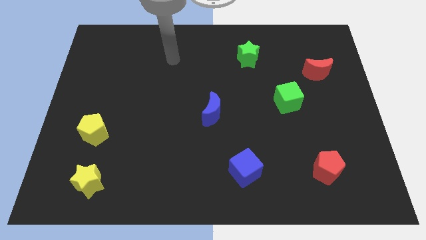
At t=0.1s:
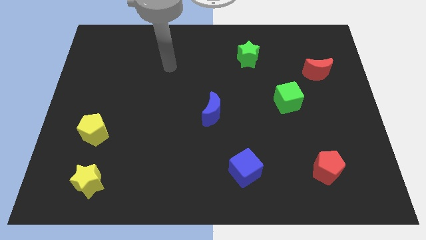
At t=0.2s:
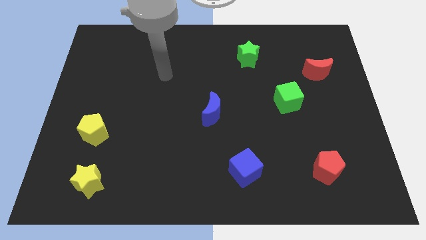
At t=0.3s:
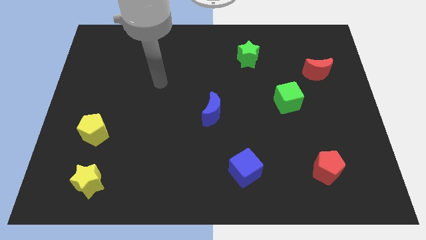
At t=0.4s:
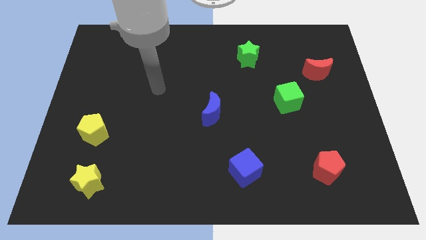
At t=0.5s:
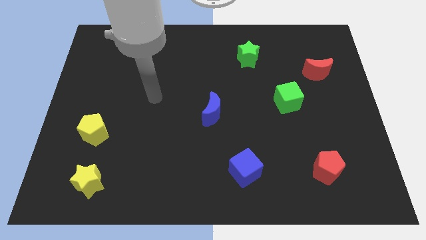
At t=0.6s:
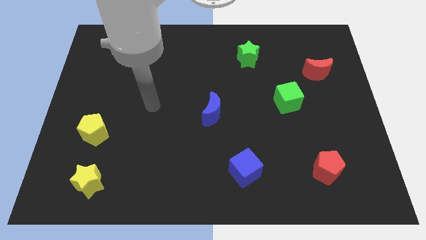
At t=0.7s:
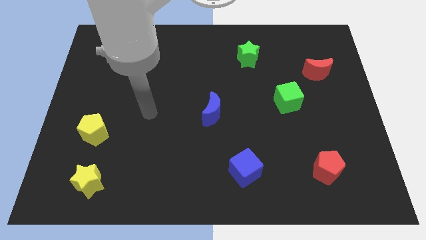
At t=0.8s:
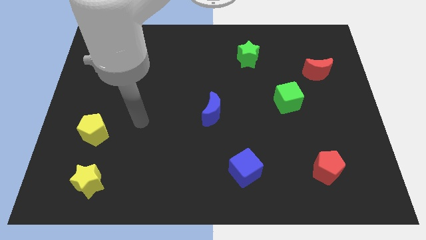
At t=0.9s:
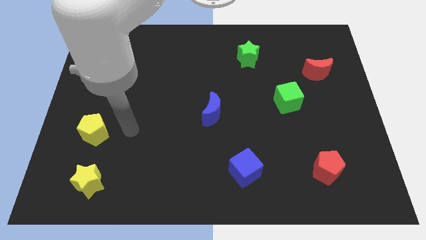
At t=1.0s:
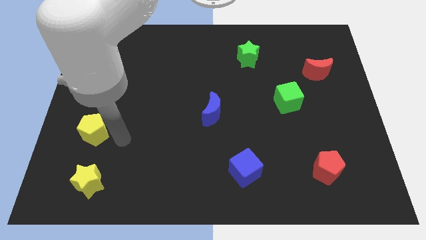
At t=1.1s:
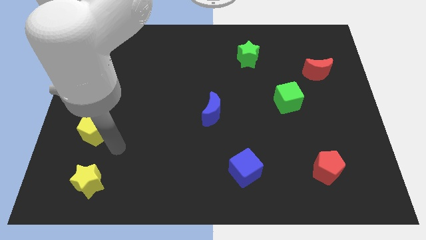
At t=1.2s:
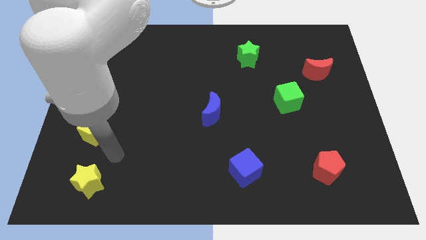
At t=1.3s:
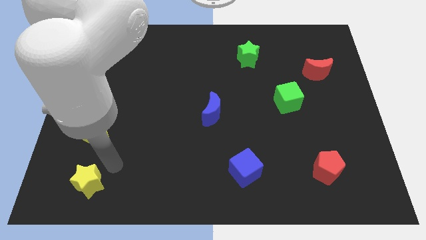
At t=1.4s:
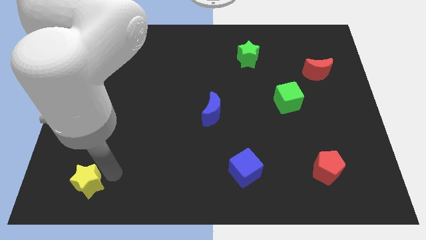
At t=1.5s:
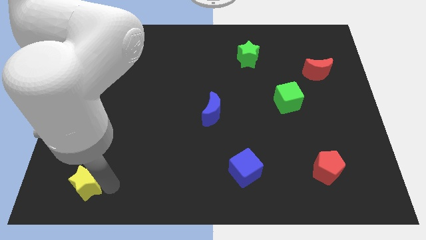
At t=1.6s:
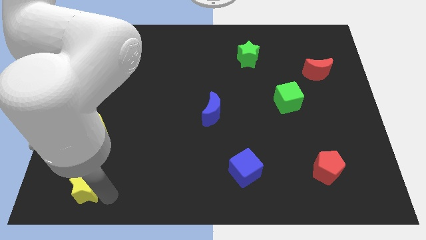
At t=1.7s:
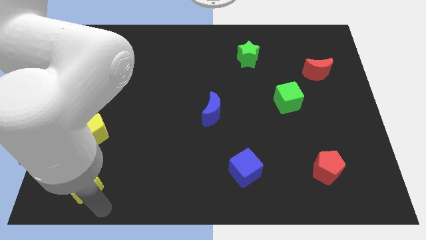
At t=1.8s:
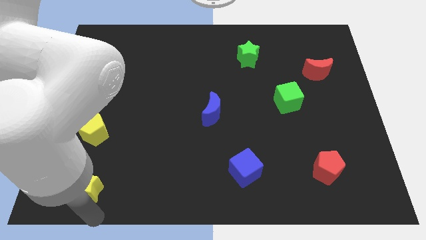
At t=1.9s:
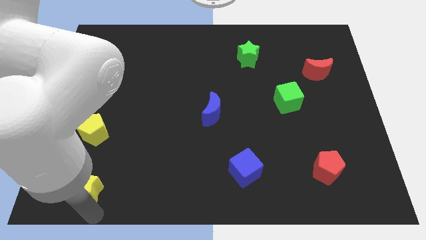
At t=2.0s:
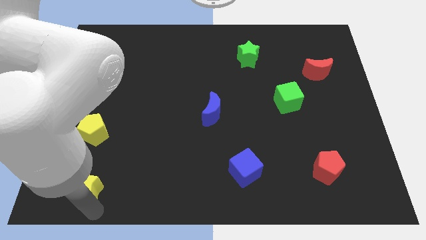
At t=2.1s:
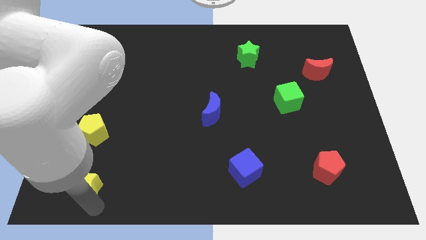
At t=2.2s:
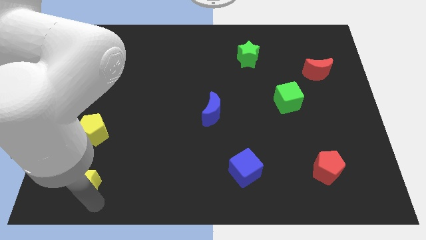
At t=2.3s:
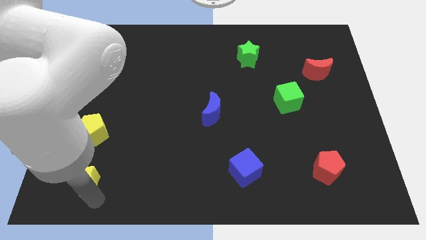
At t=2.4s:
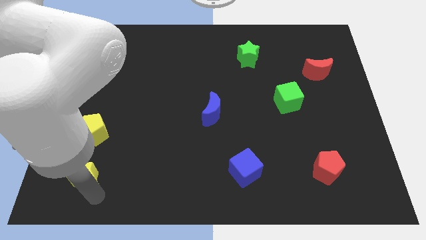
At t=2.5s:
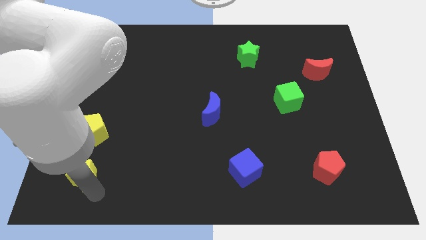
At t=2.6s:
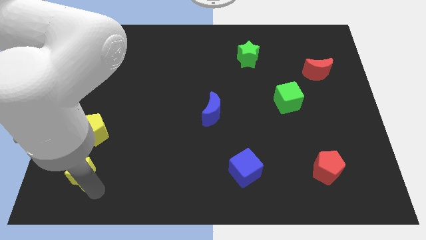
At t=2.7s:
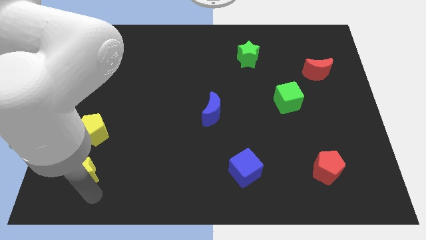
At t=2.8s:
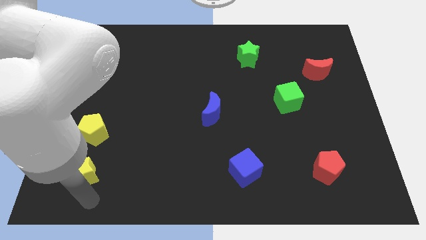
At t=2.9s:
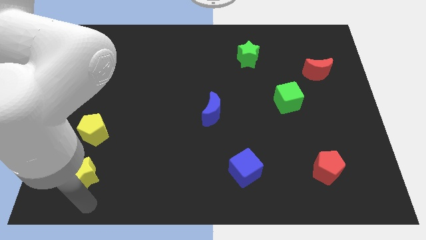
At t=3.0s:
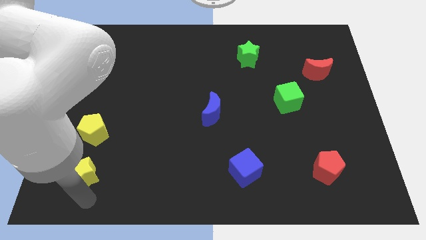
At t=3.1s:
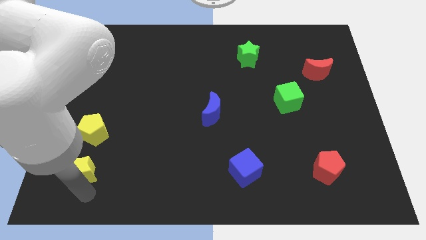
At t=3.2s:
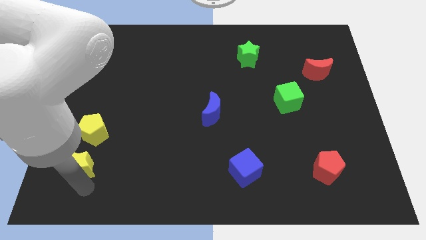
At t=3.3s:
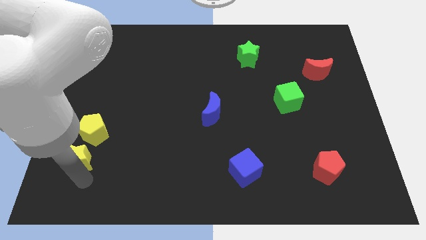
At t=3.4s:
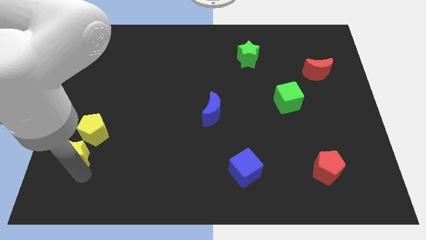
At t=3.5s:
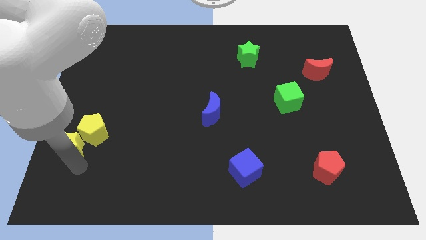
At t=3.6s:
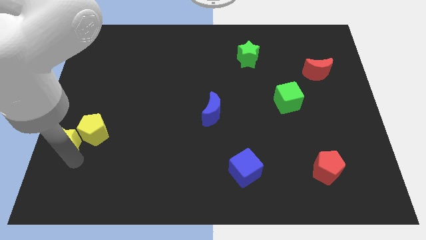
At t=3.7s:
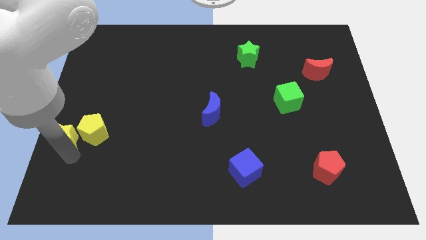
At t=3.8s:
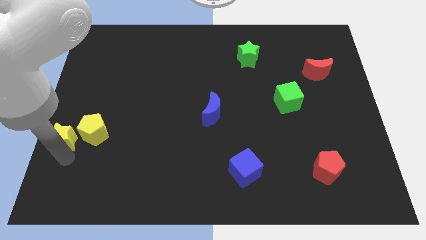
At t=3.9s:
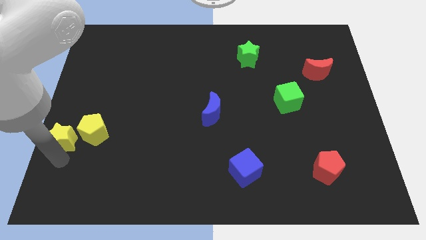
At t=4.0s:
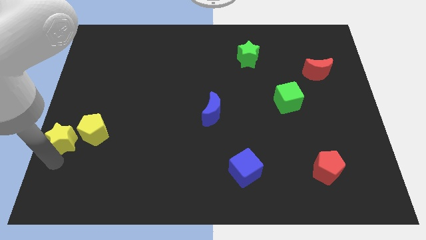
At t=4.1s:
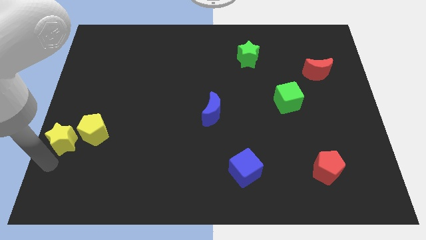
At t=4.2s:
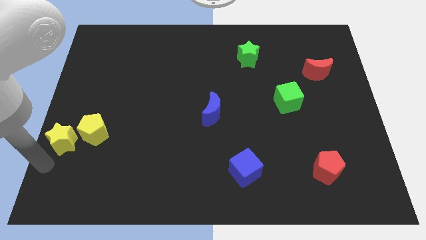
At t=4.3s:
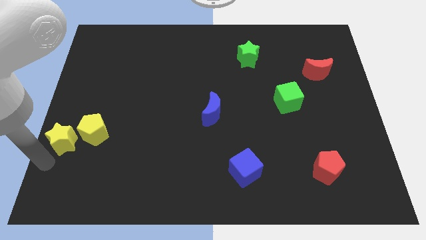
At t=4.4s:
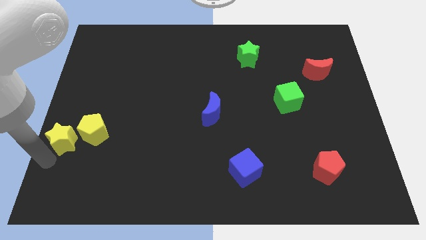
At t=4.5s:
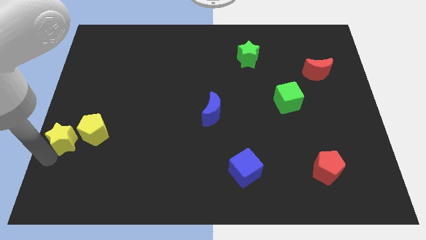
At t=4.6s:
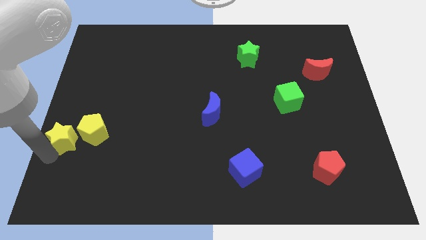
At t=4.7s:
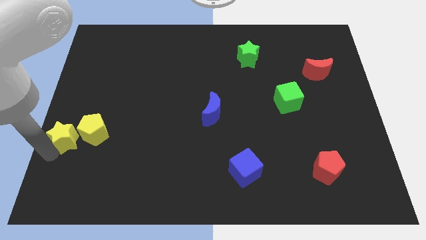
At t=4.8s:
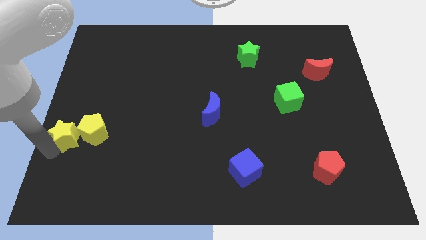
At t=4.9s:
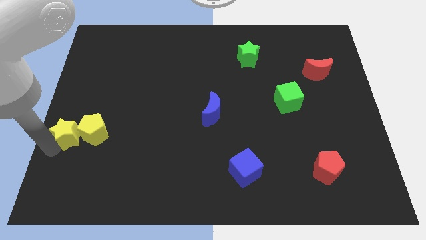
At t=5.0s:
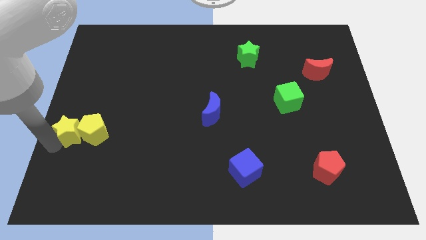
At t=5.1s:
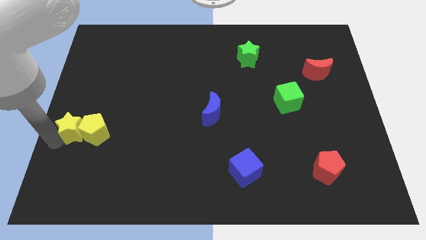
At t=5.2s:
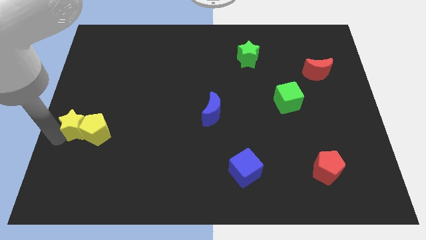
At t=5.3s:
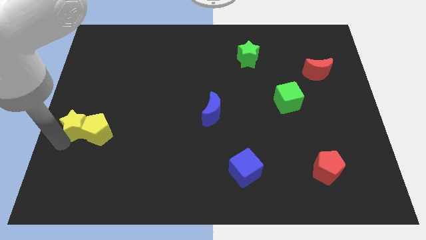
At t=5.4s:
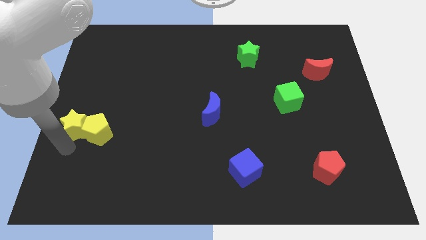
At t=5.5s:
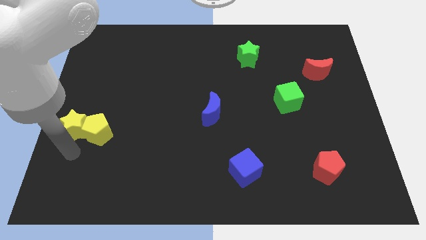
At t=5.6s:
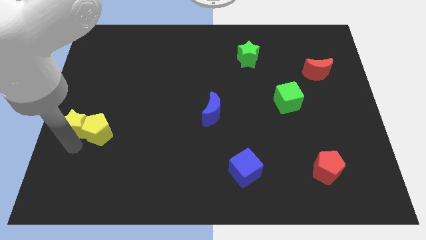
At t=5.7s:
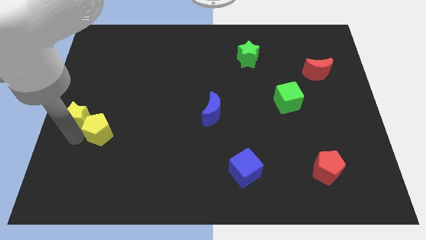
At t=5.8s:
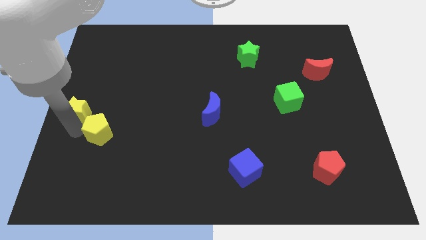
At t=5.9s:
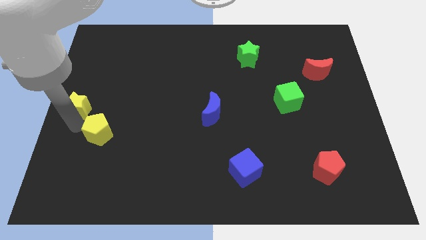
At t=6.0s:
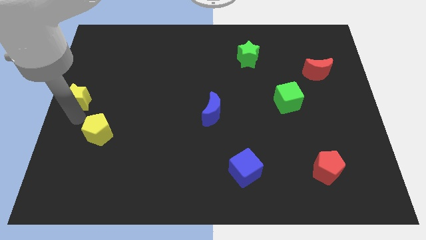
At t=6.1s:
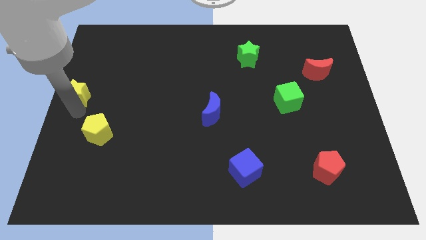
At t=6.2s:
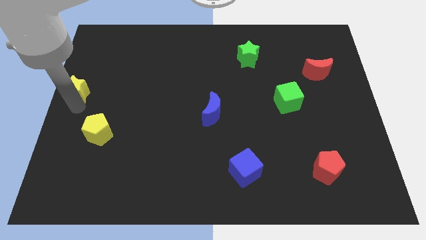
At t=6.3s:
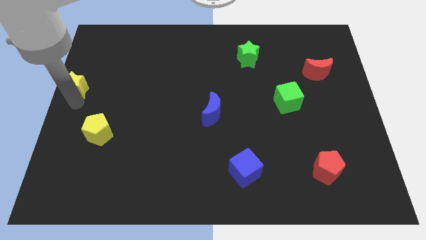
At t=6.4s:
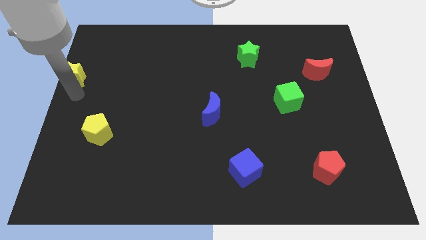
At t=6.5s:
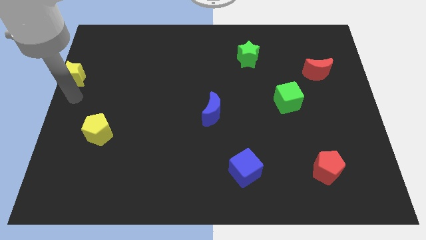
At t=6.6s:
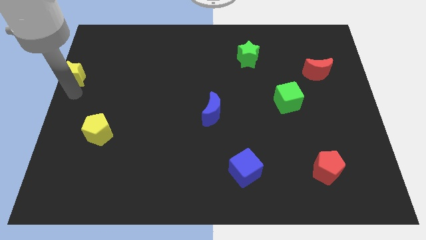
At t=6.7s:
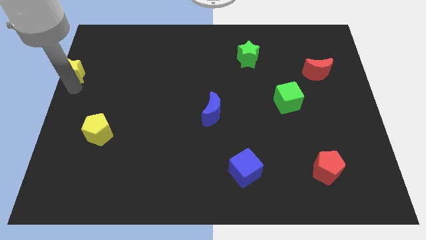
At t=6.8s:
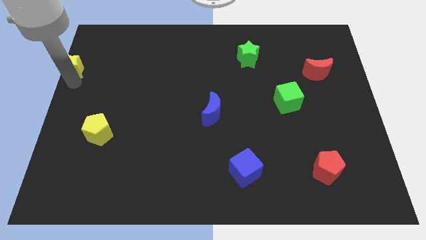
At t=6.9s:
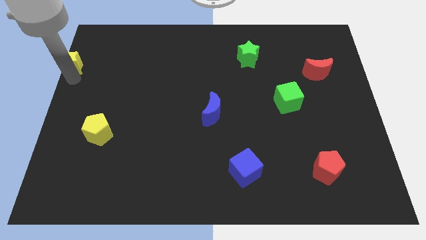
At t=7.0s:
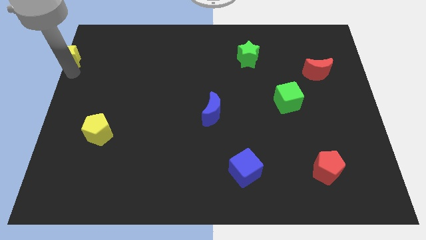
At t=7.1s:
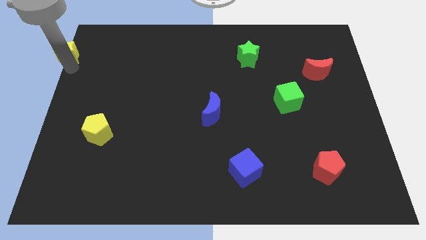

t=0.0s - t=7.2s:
slide the yellow star to the top left of the board
